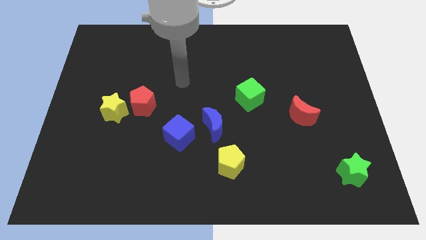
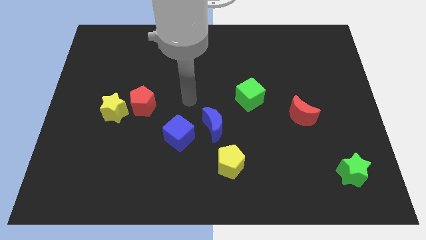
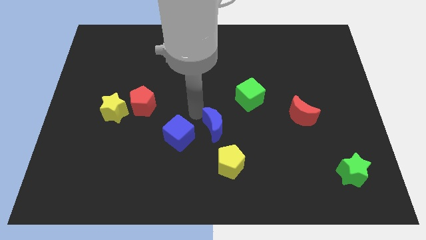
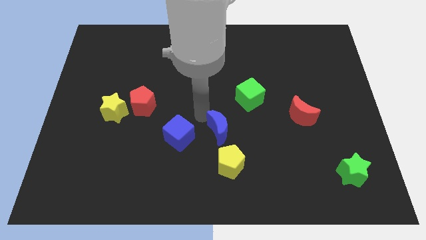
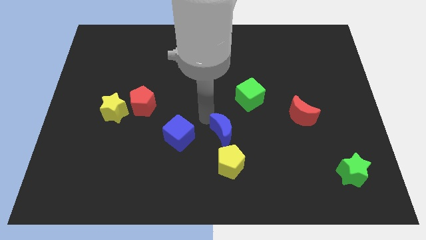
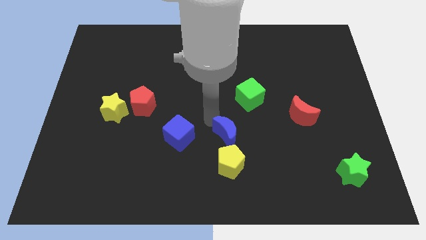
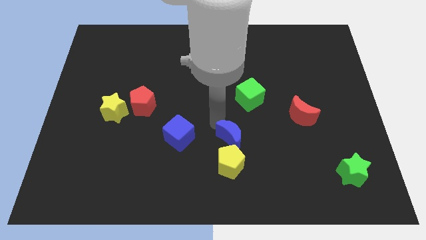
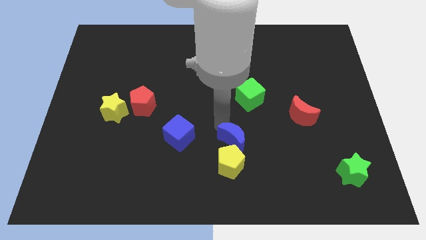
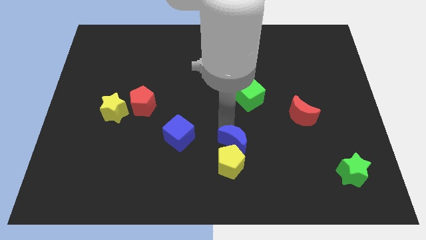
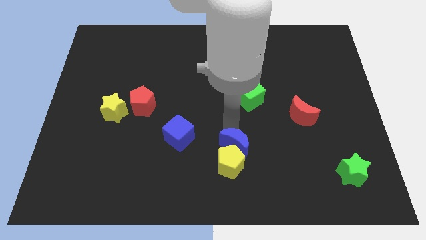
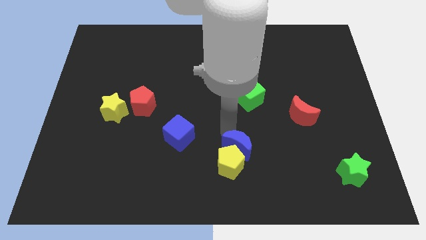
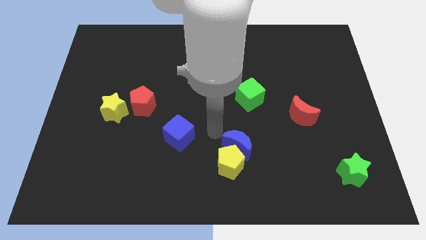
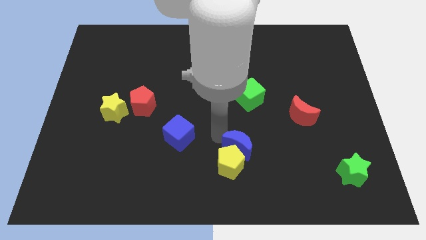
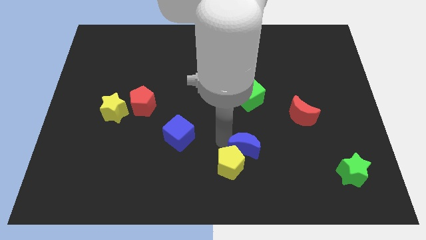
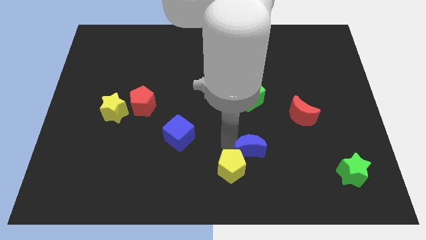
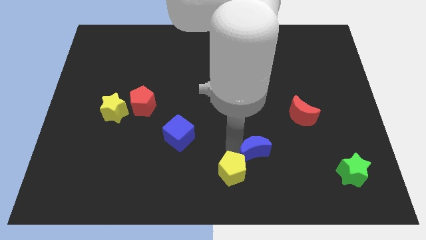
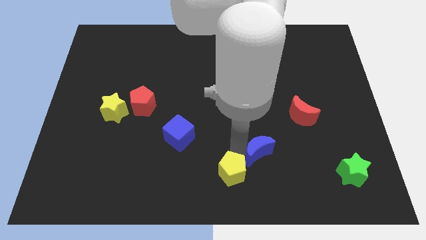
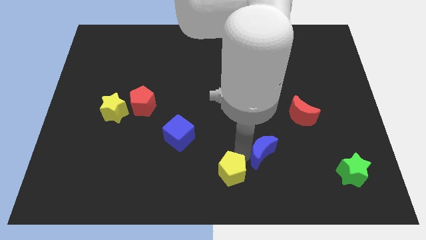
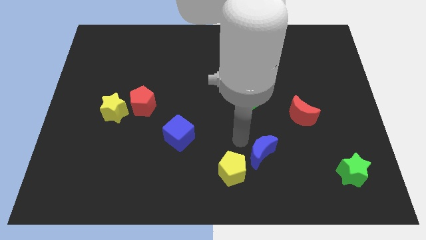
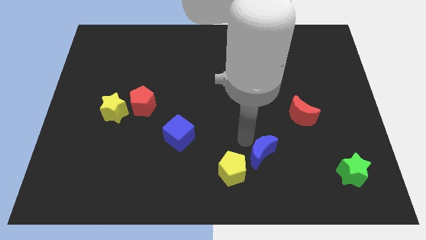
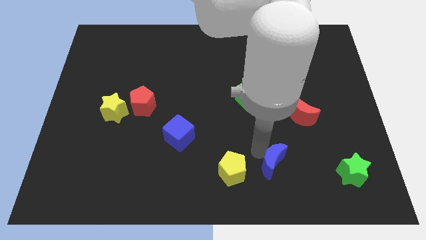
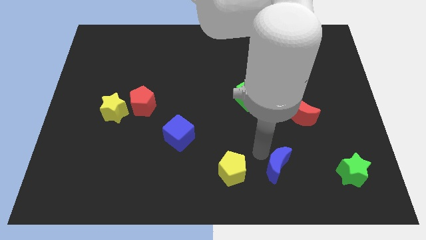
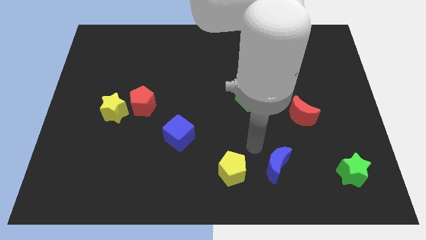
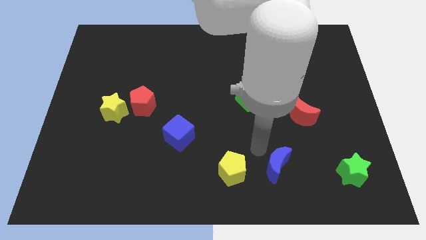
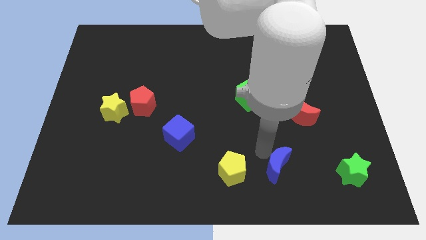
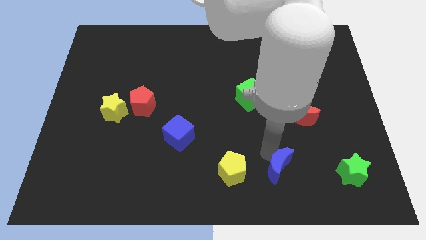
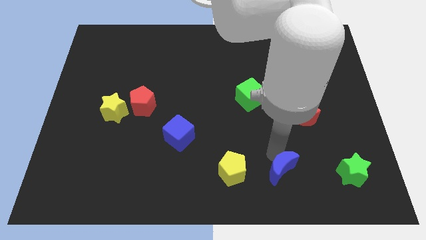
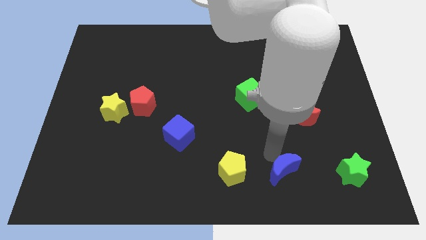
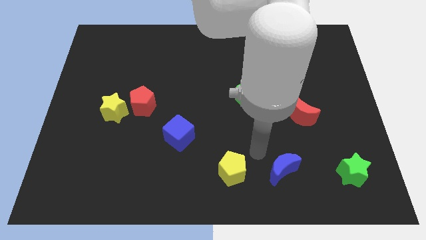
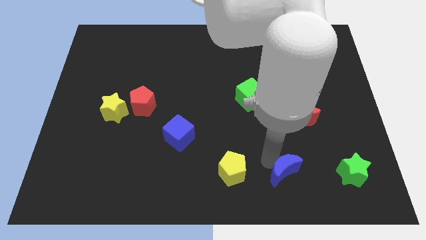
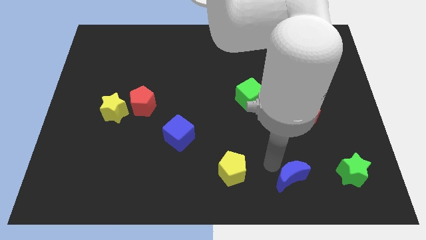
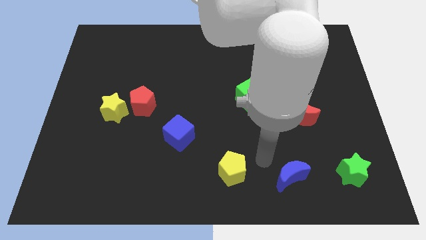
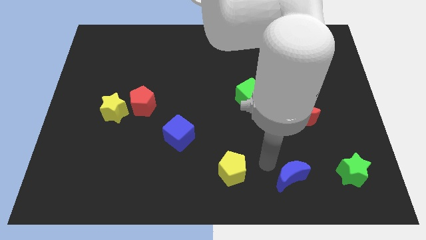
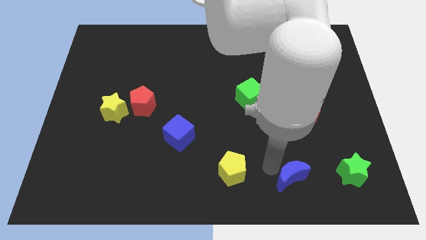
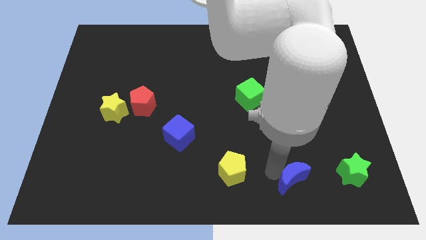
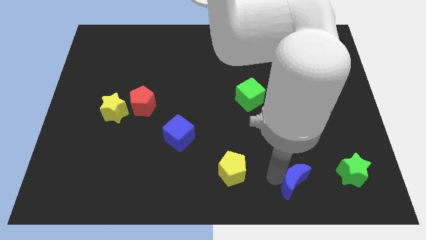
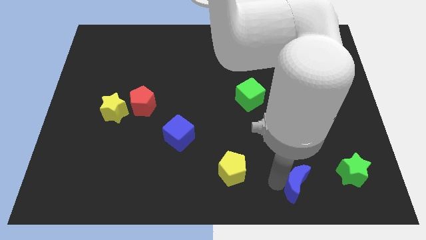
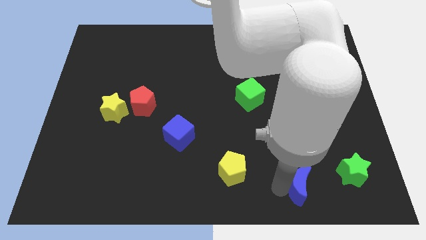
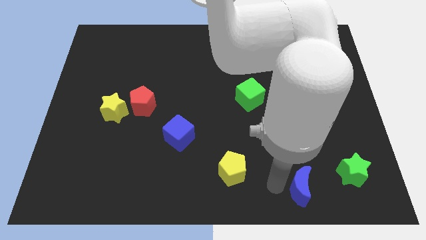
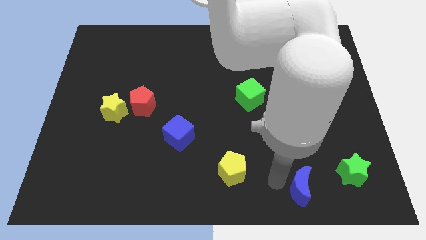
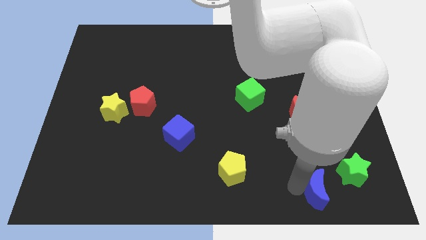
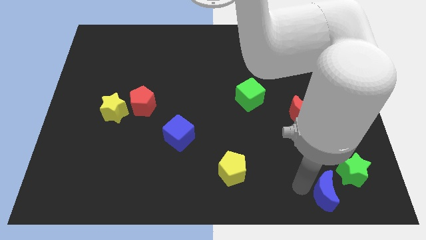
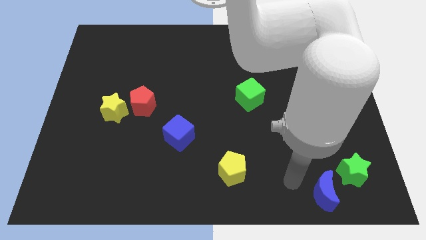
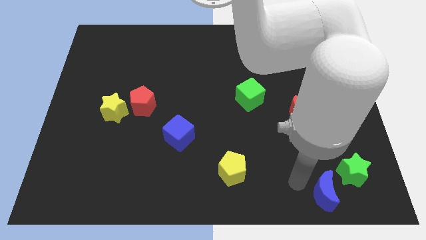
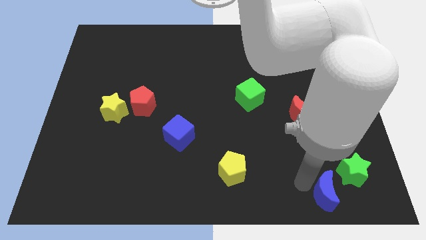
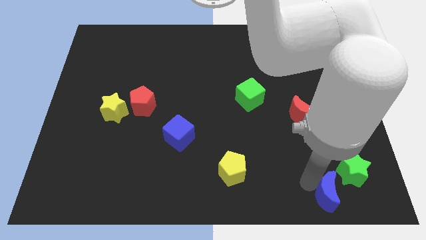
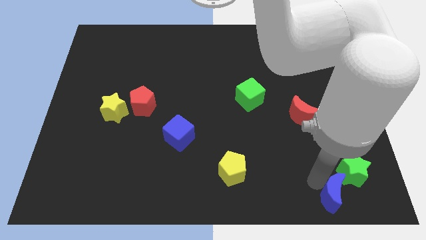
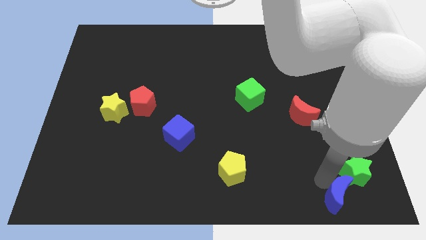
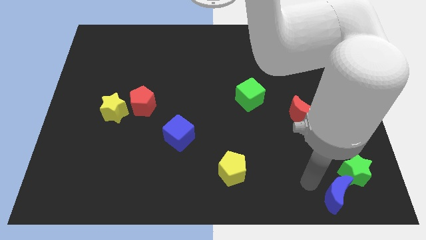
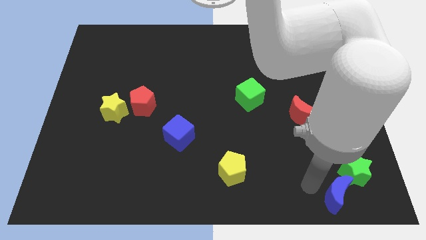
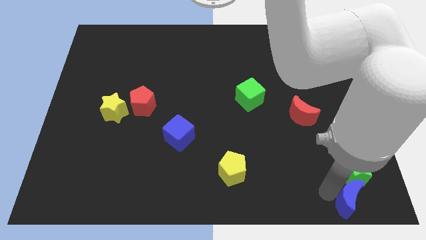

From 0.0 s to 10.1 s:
move the blue moon to the bottom right

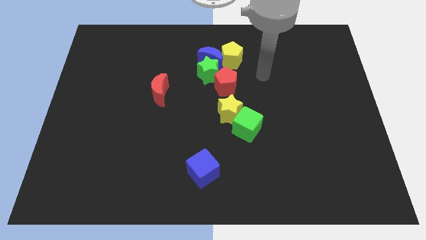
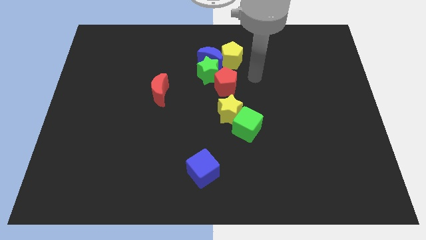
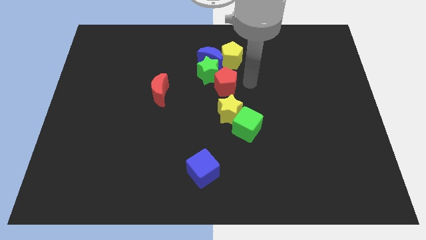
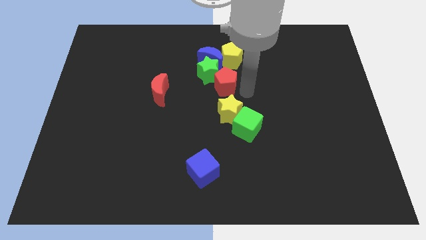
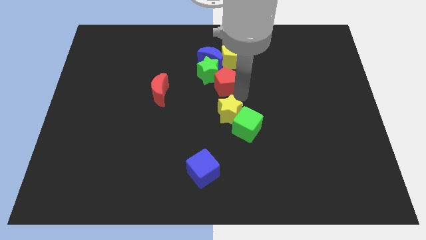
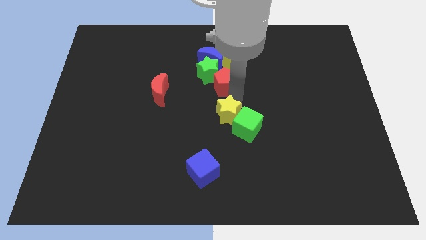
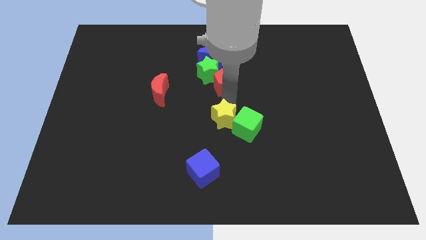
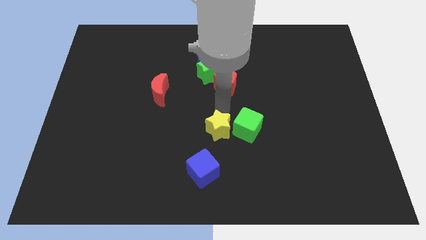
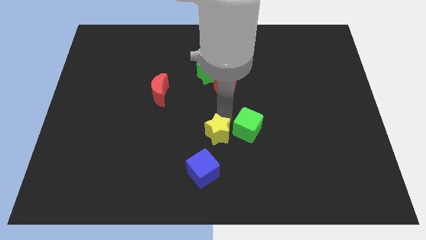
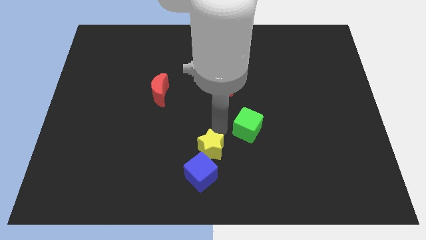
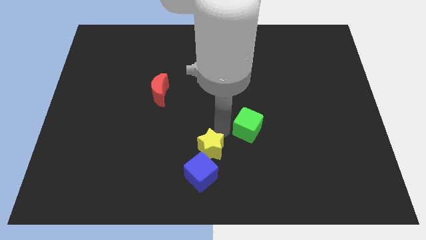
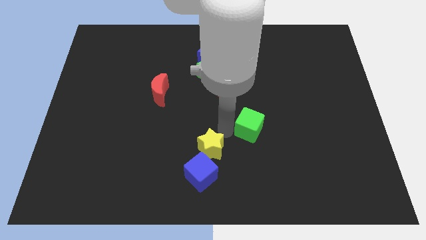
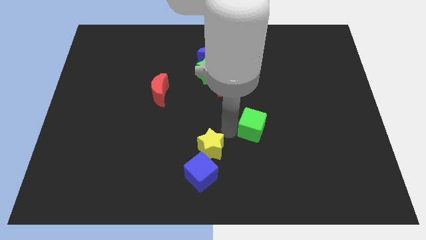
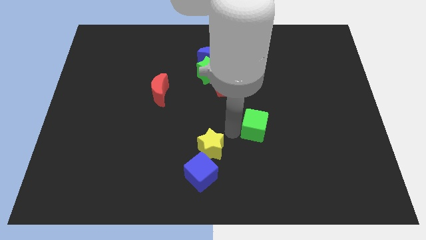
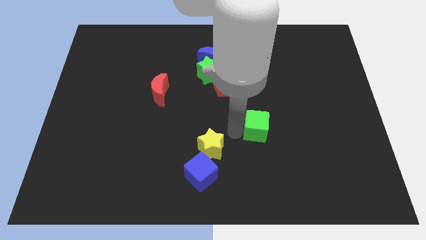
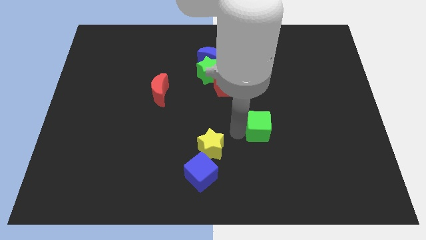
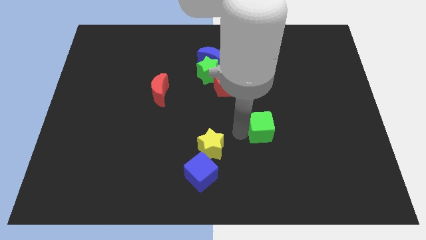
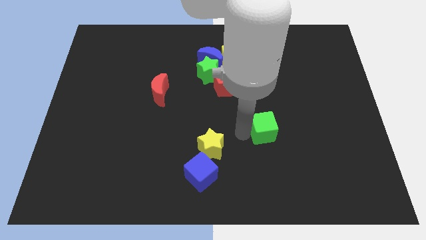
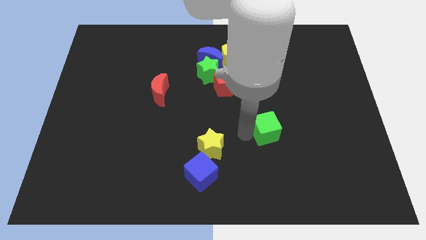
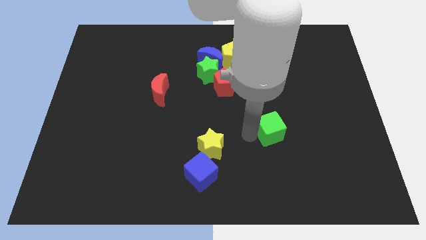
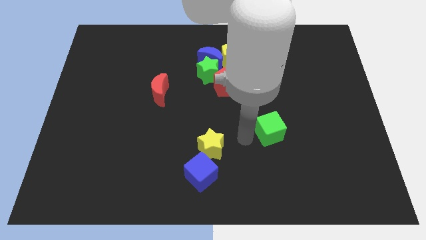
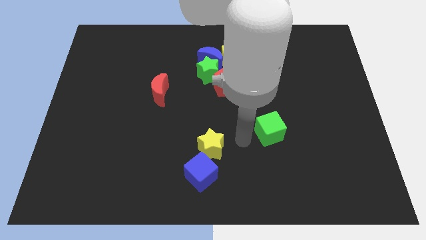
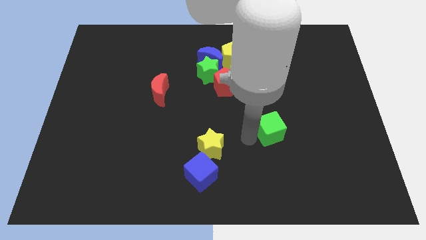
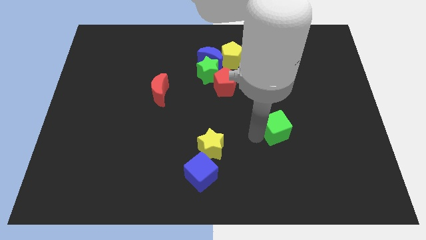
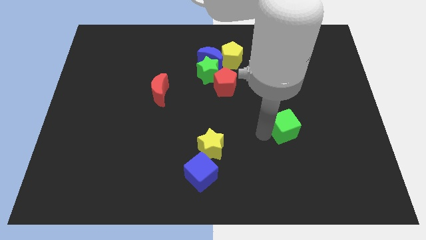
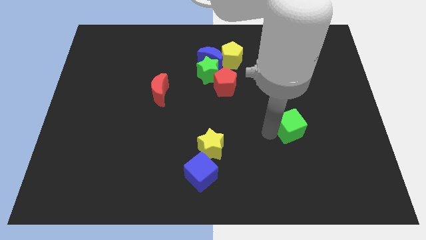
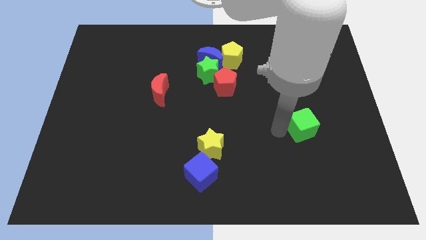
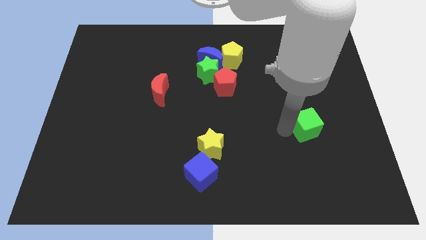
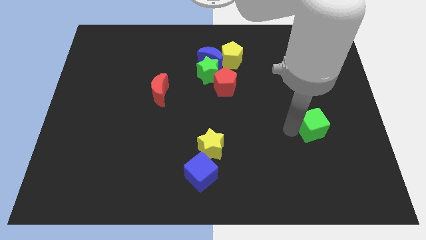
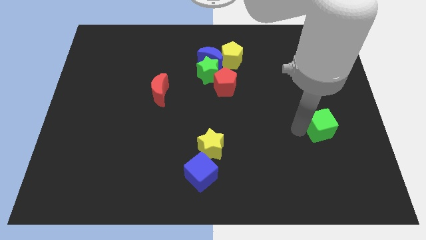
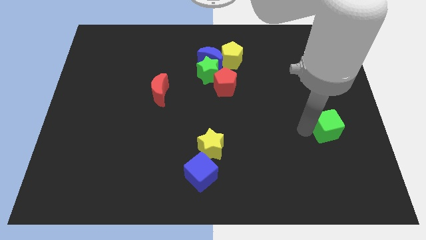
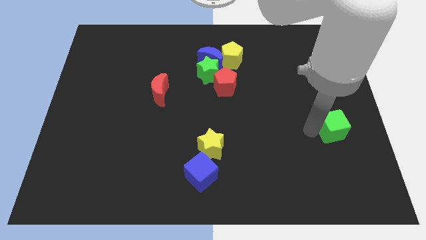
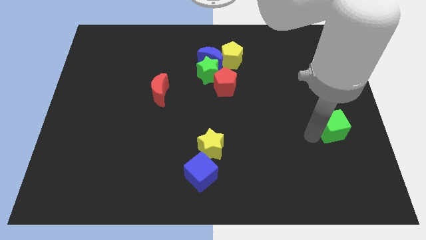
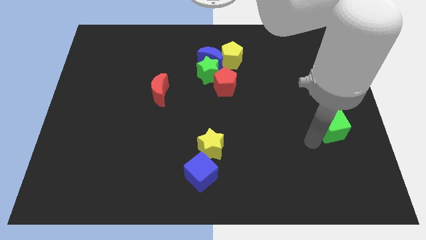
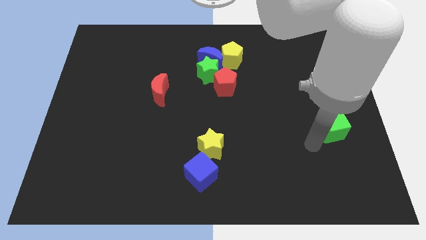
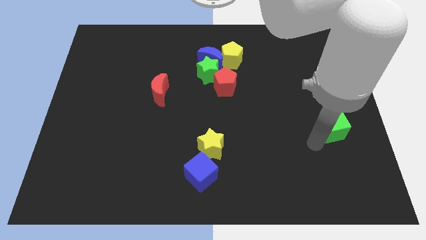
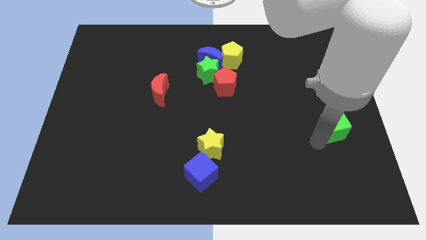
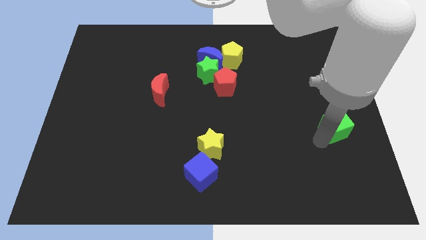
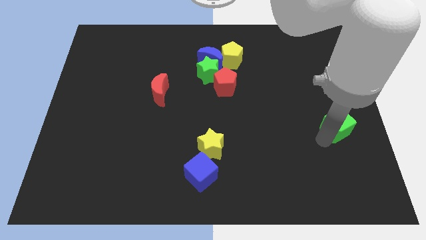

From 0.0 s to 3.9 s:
put the green cube to the center right
